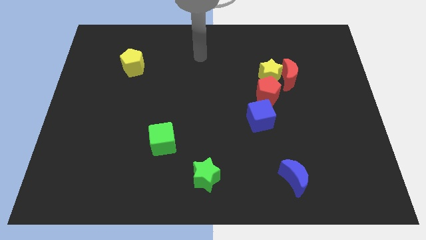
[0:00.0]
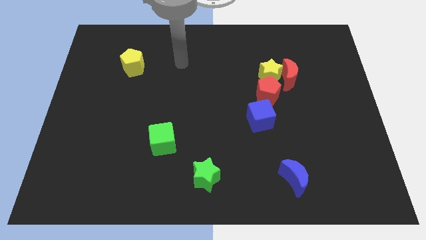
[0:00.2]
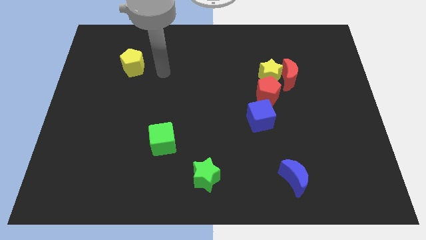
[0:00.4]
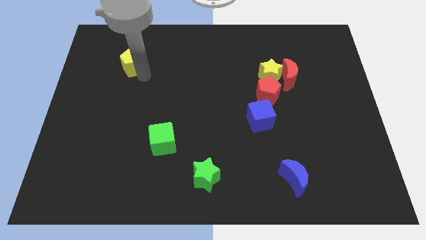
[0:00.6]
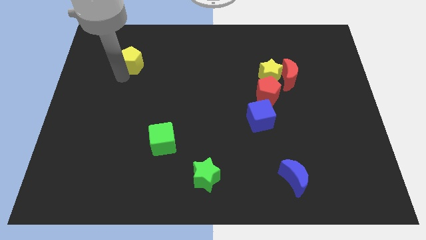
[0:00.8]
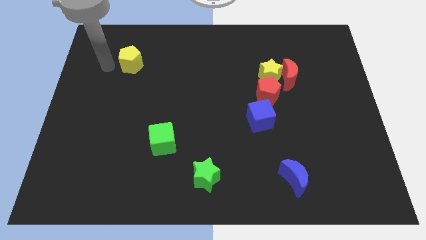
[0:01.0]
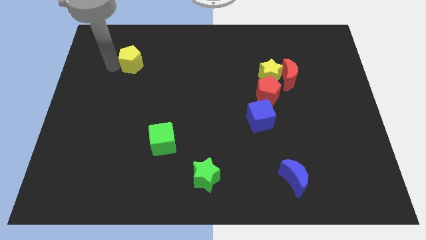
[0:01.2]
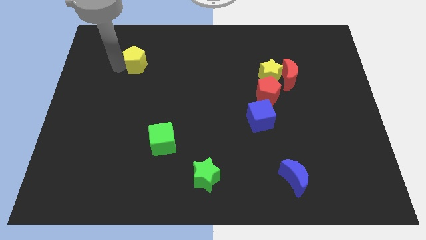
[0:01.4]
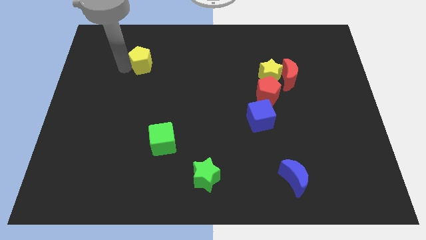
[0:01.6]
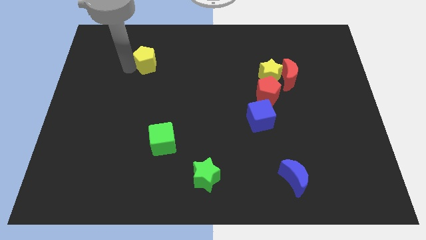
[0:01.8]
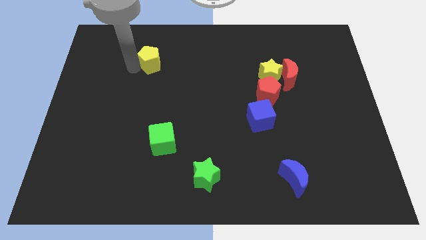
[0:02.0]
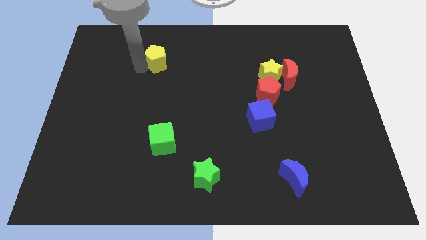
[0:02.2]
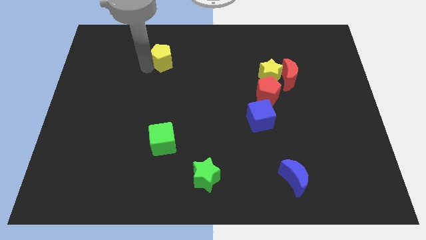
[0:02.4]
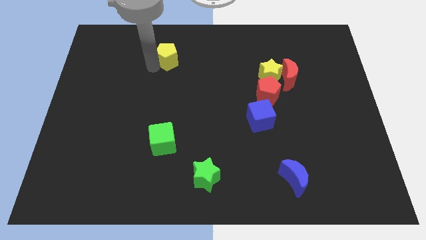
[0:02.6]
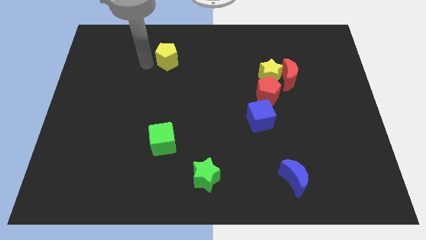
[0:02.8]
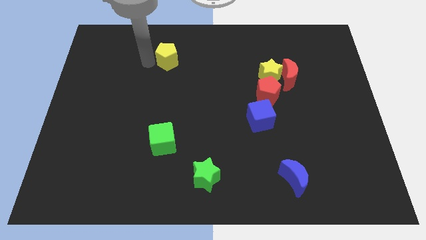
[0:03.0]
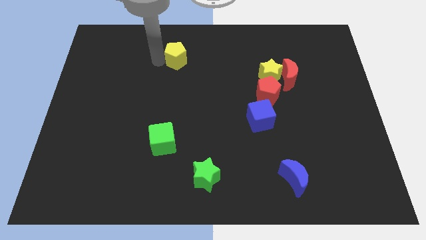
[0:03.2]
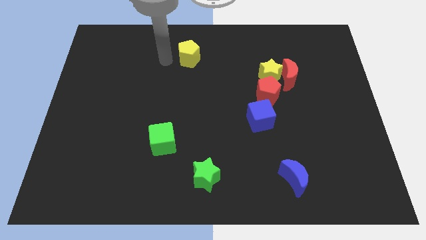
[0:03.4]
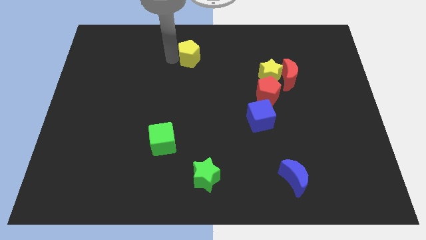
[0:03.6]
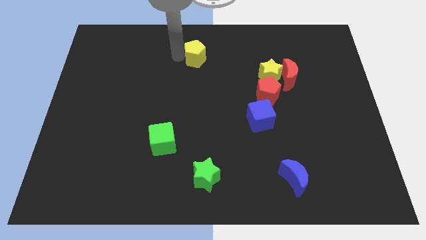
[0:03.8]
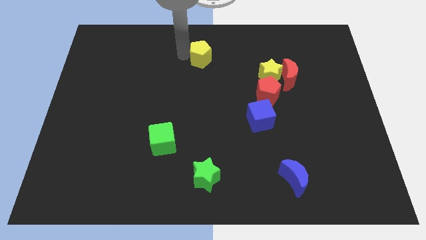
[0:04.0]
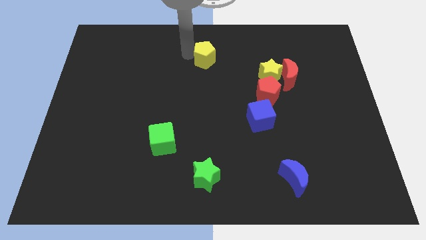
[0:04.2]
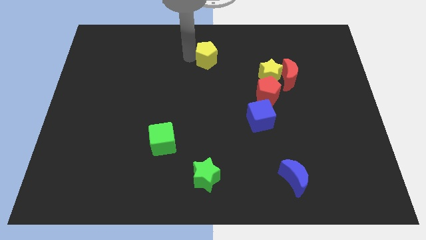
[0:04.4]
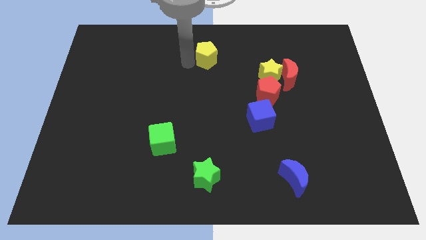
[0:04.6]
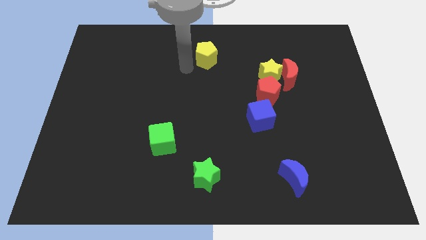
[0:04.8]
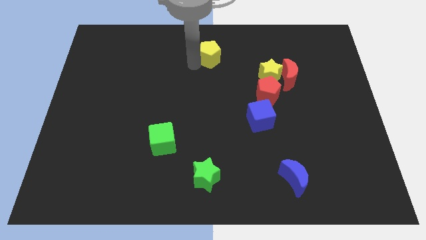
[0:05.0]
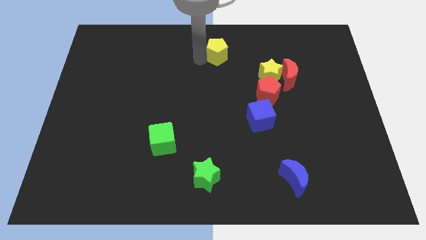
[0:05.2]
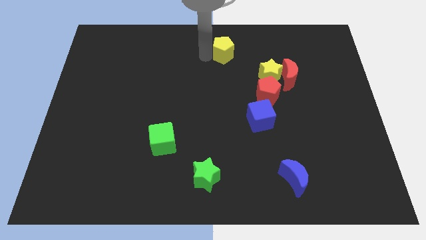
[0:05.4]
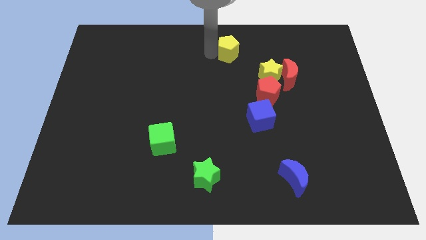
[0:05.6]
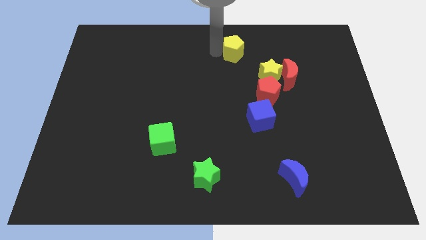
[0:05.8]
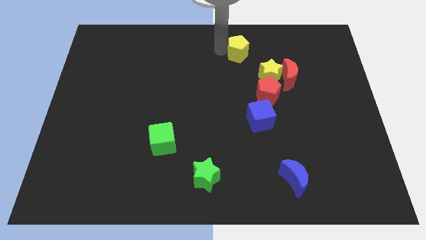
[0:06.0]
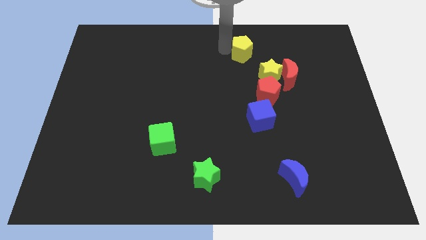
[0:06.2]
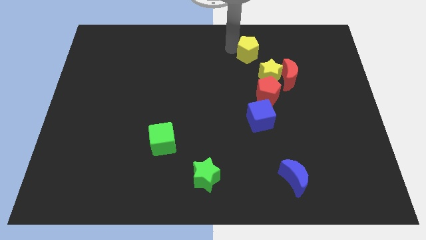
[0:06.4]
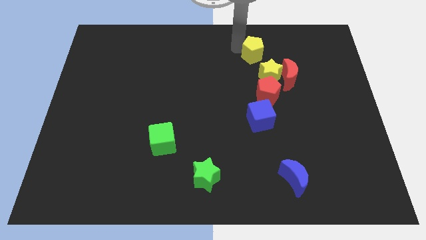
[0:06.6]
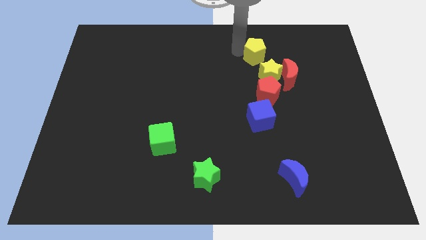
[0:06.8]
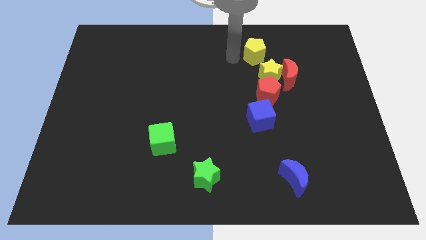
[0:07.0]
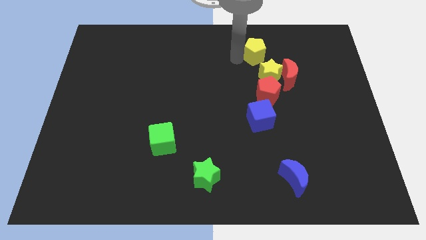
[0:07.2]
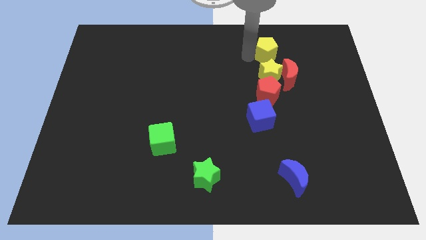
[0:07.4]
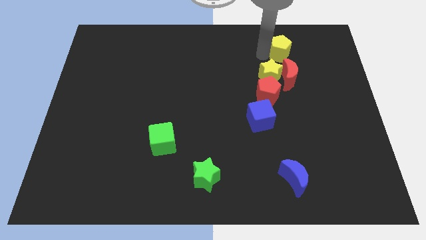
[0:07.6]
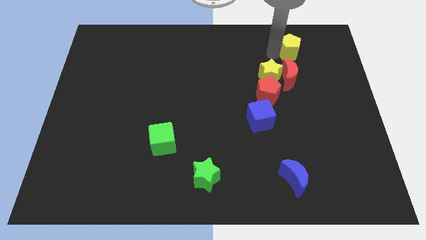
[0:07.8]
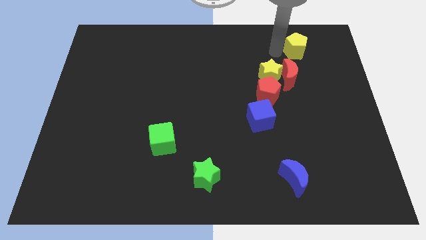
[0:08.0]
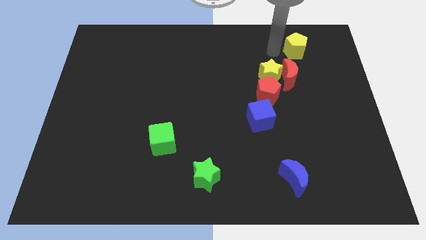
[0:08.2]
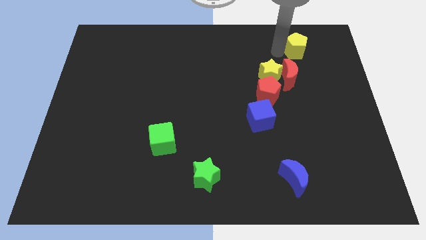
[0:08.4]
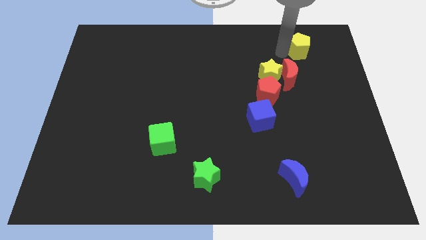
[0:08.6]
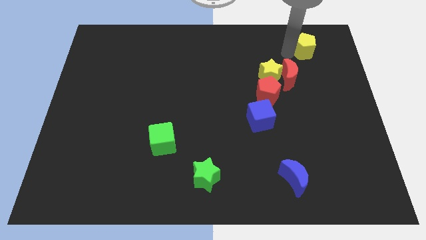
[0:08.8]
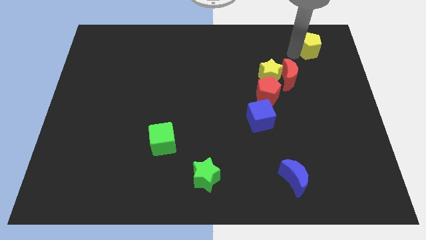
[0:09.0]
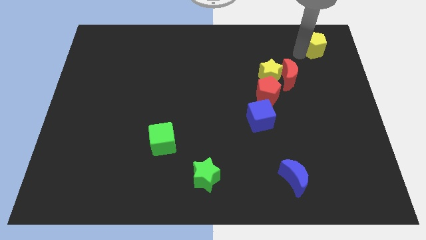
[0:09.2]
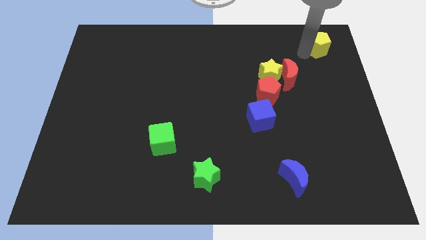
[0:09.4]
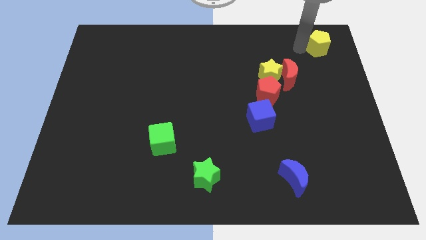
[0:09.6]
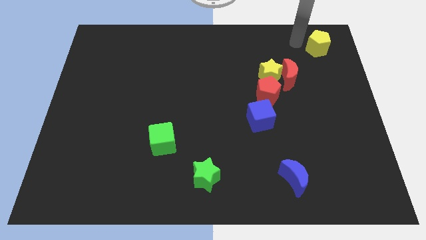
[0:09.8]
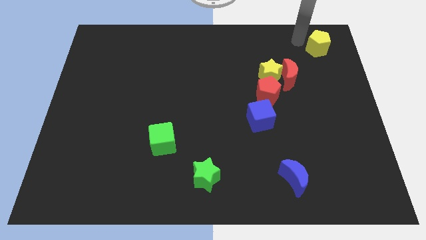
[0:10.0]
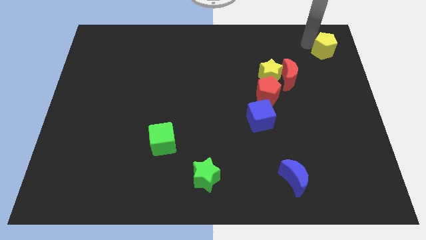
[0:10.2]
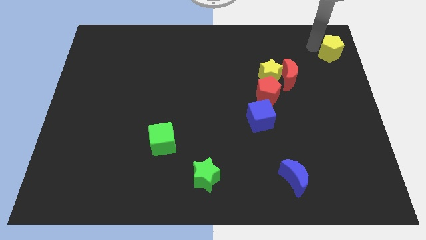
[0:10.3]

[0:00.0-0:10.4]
push the yellow pentagon to the top right

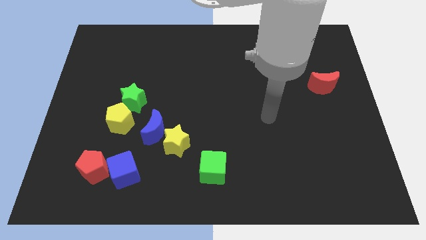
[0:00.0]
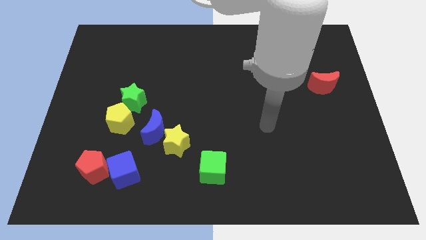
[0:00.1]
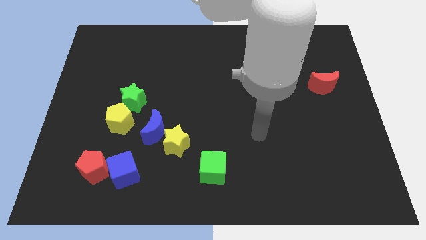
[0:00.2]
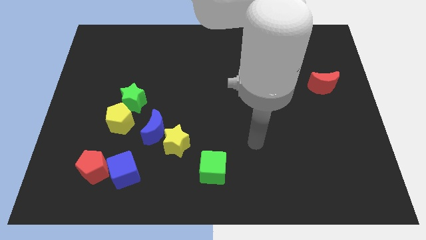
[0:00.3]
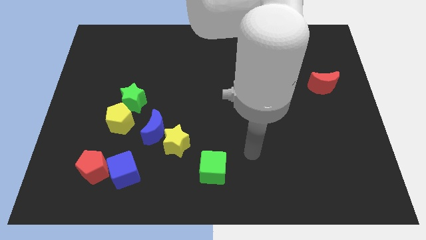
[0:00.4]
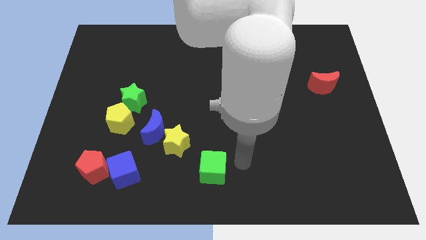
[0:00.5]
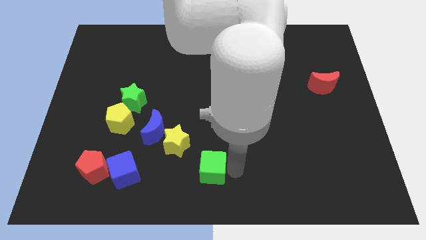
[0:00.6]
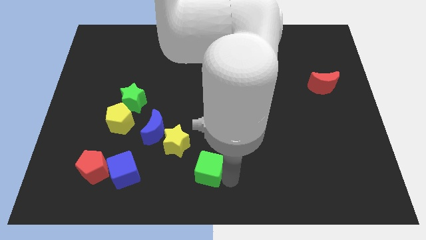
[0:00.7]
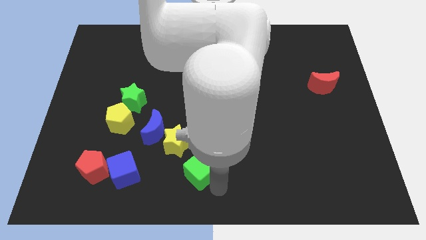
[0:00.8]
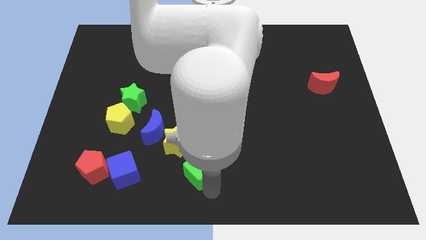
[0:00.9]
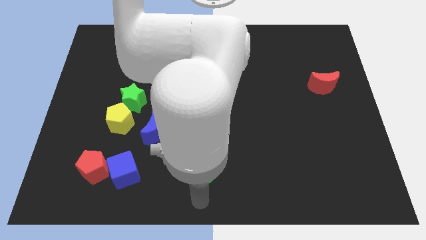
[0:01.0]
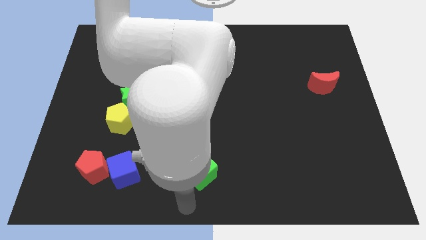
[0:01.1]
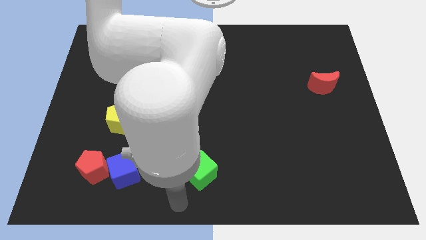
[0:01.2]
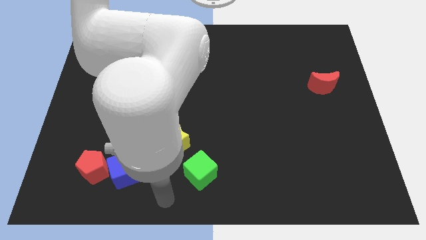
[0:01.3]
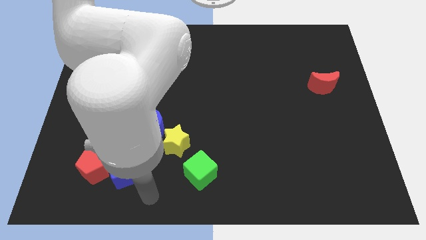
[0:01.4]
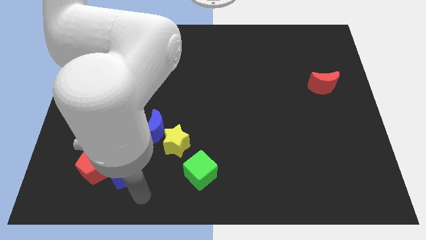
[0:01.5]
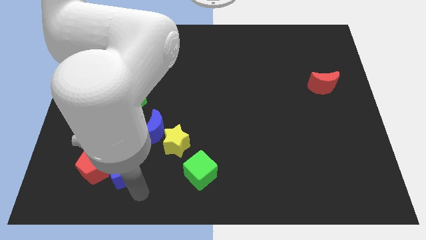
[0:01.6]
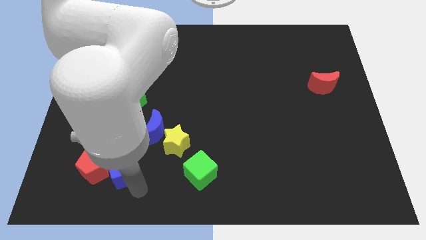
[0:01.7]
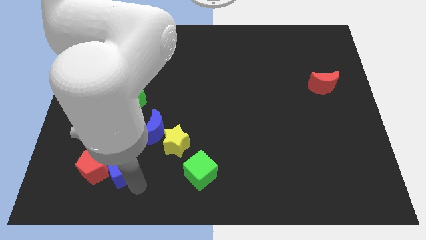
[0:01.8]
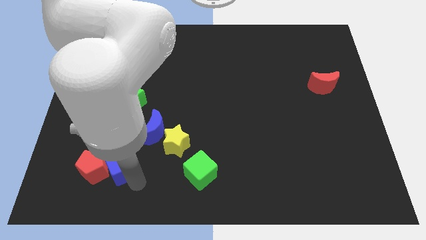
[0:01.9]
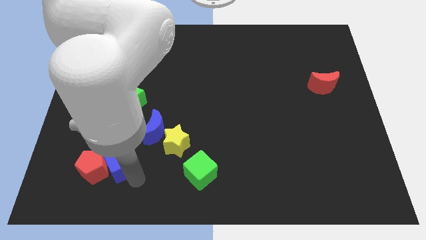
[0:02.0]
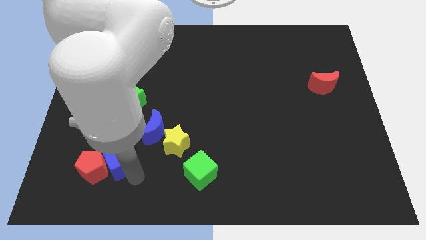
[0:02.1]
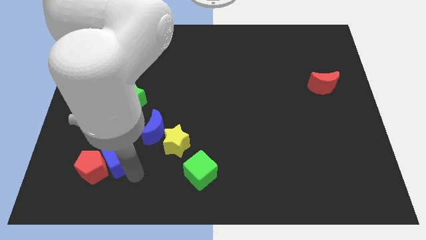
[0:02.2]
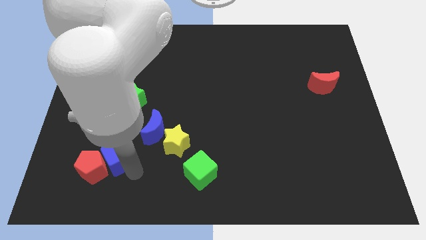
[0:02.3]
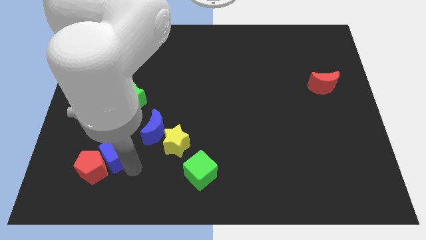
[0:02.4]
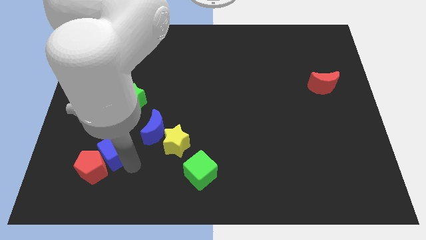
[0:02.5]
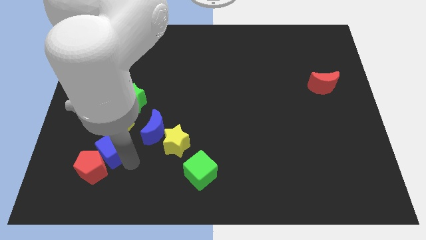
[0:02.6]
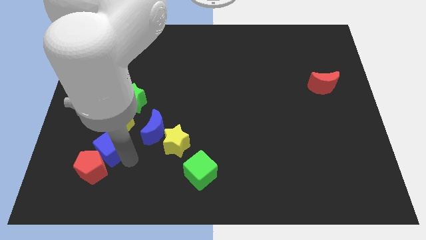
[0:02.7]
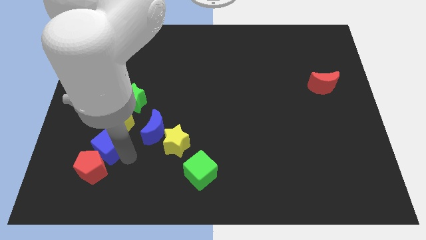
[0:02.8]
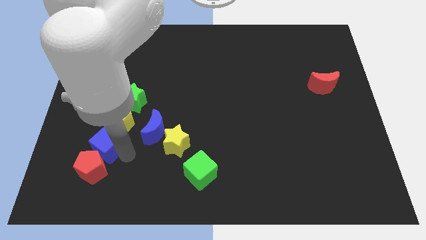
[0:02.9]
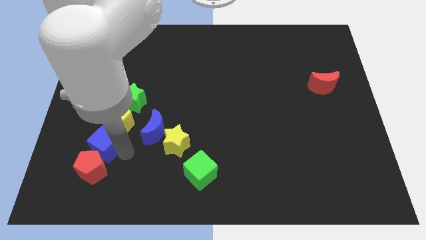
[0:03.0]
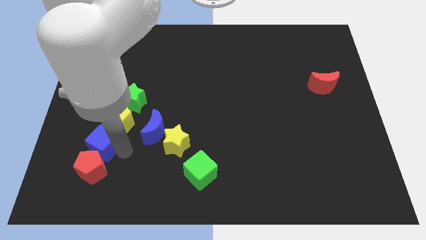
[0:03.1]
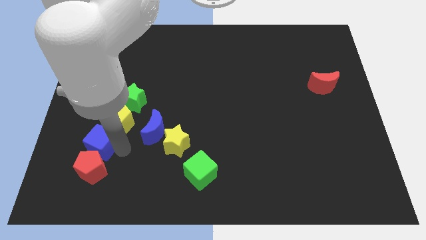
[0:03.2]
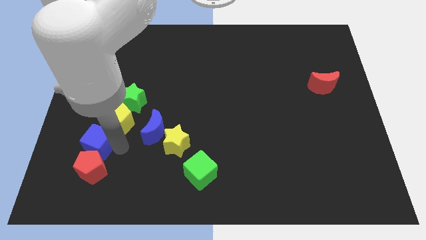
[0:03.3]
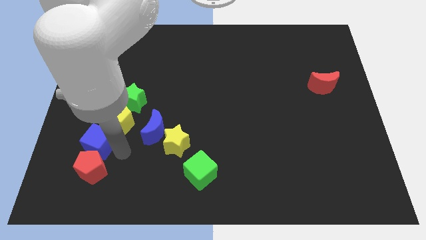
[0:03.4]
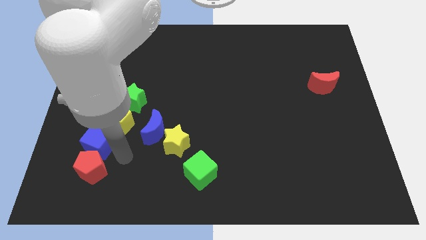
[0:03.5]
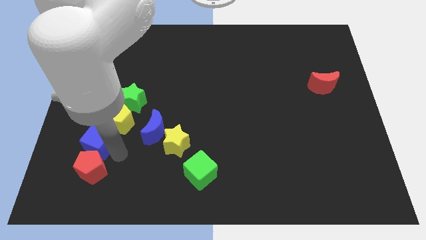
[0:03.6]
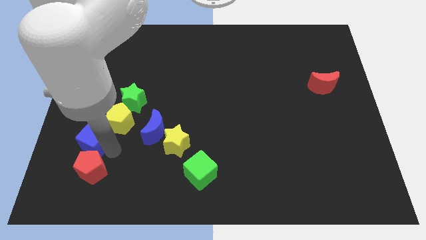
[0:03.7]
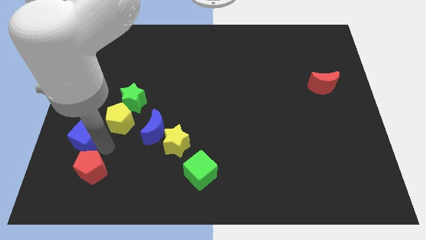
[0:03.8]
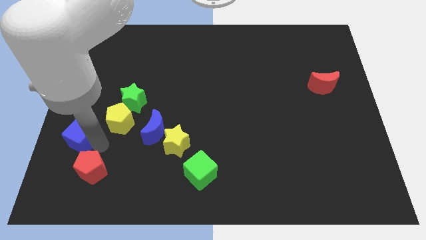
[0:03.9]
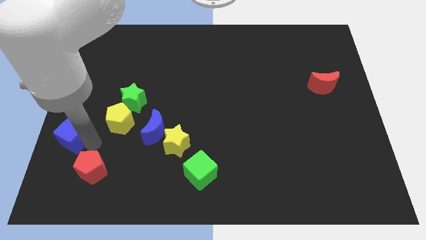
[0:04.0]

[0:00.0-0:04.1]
slide the blue cube to the left side of the board
